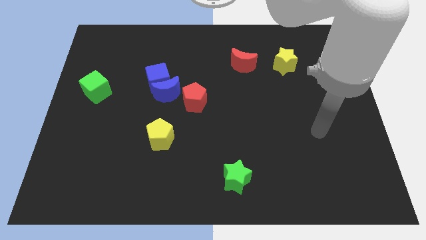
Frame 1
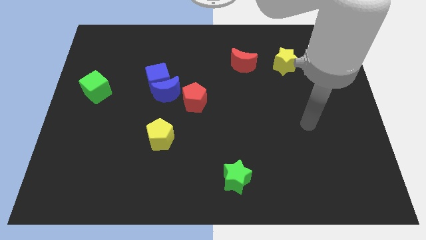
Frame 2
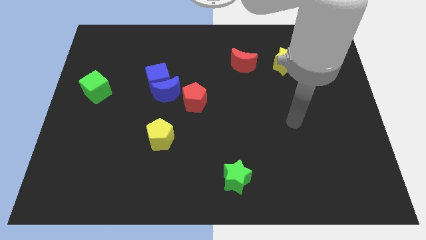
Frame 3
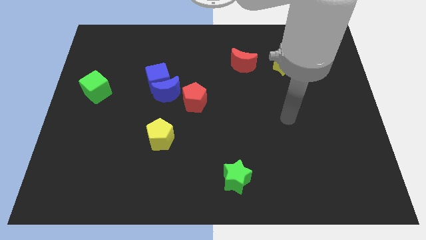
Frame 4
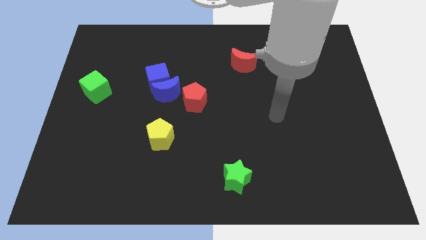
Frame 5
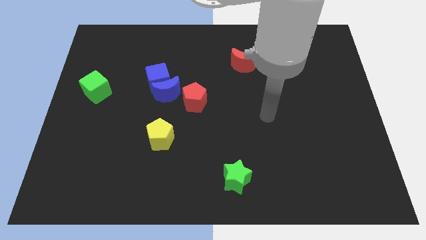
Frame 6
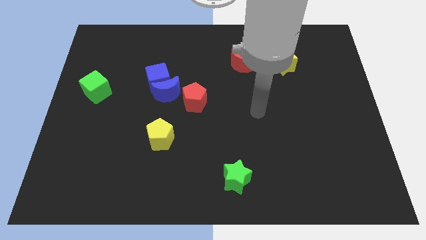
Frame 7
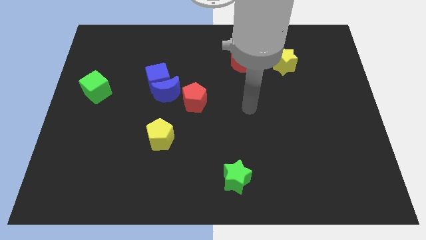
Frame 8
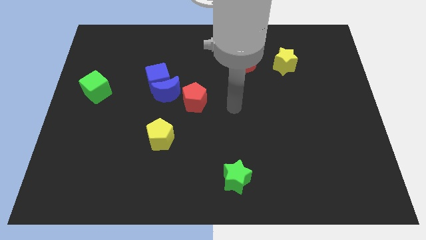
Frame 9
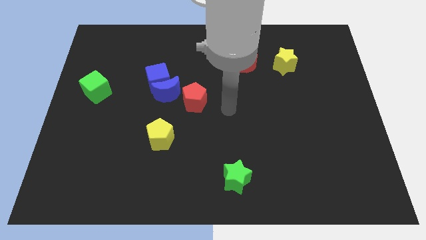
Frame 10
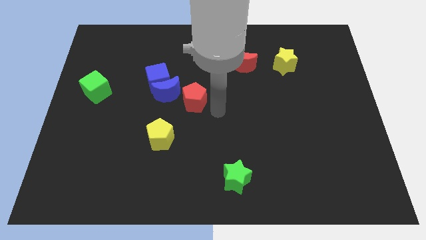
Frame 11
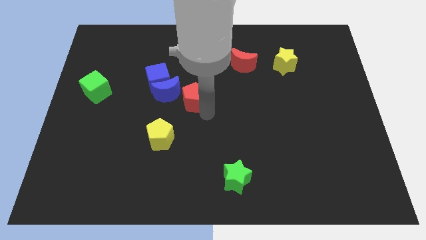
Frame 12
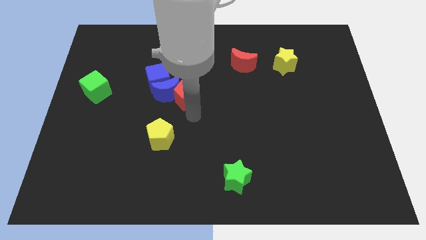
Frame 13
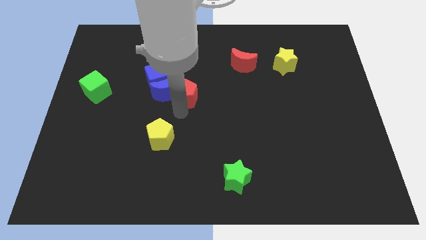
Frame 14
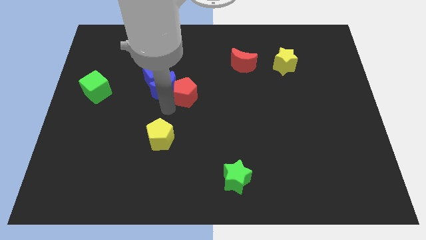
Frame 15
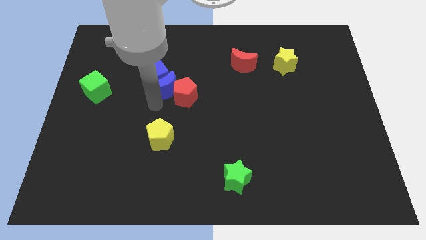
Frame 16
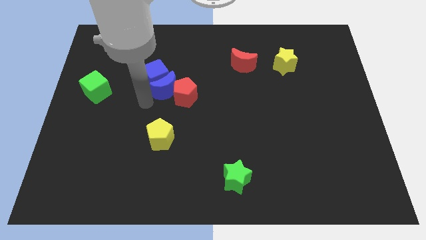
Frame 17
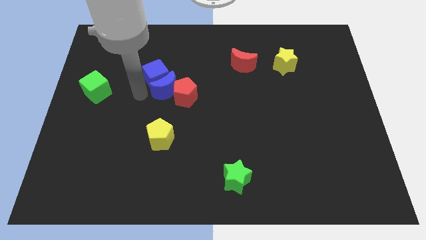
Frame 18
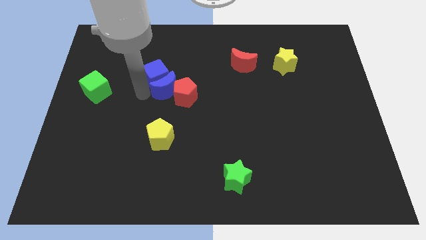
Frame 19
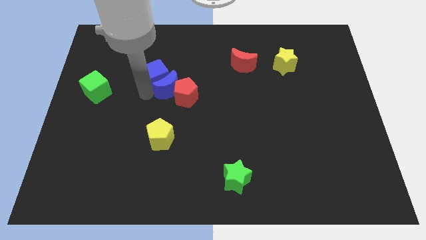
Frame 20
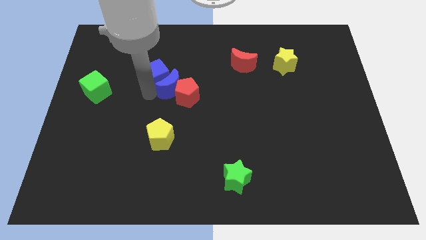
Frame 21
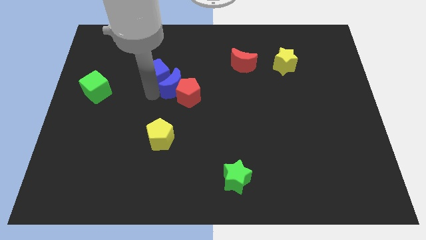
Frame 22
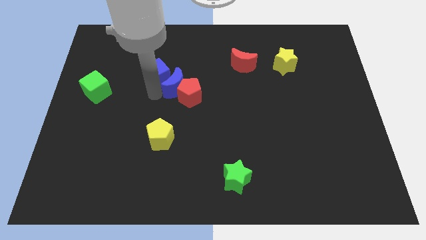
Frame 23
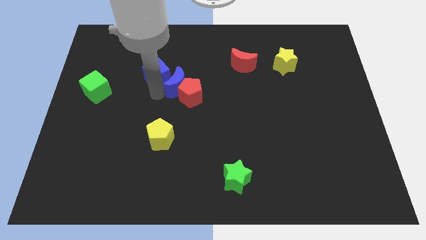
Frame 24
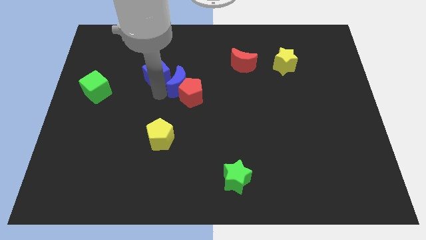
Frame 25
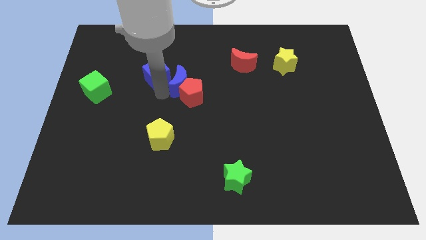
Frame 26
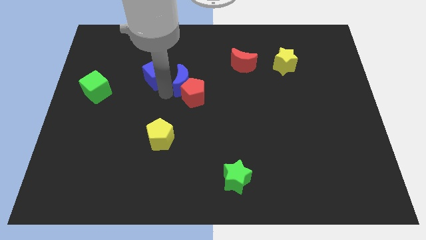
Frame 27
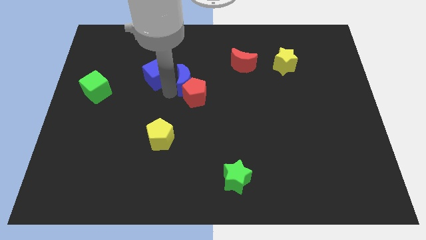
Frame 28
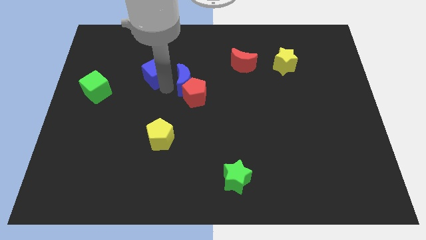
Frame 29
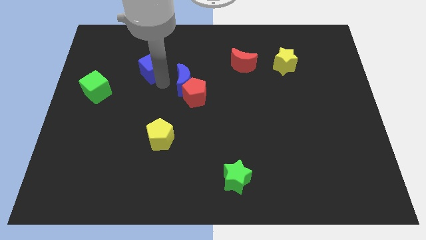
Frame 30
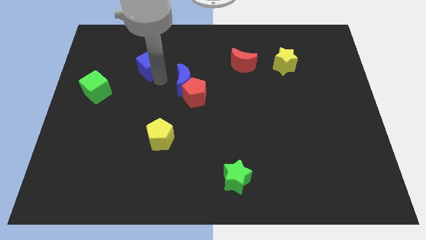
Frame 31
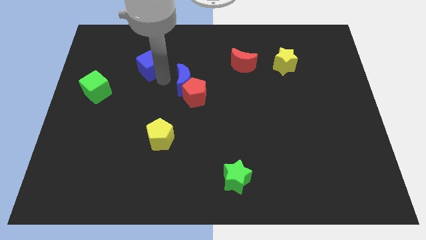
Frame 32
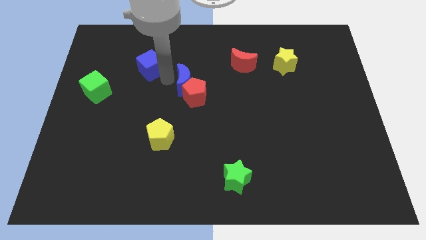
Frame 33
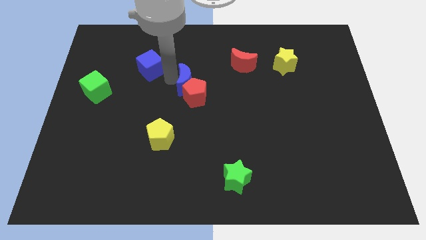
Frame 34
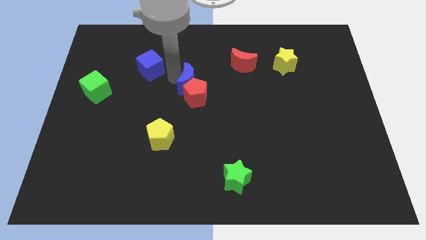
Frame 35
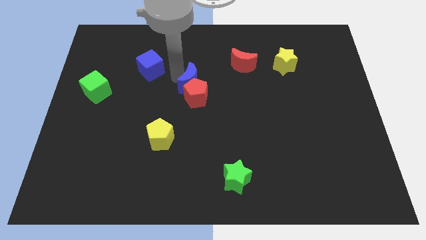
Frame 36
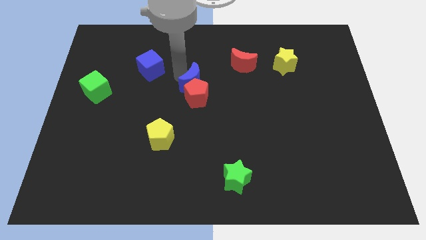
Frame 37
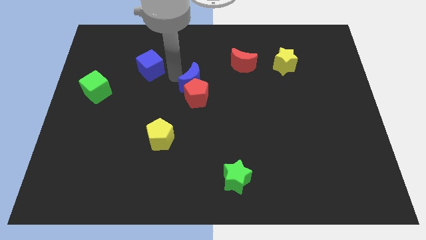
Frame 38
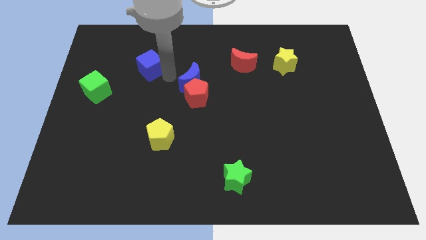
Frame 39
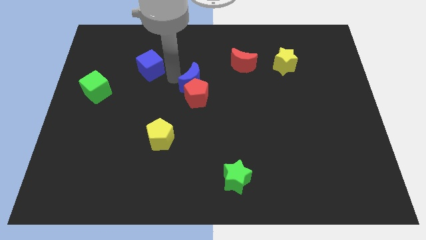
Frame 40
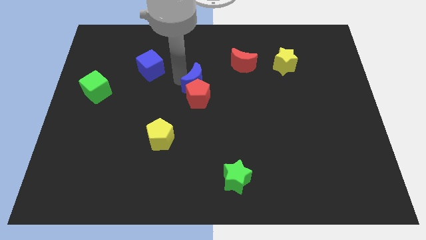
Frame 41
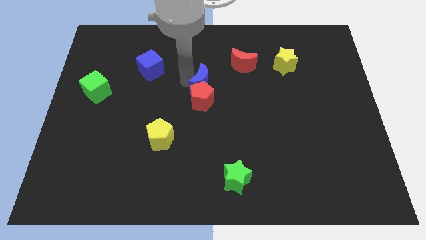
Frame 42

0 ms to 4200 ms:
slide the blue moon a bit to the right

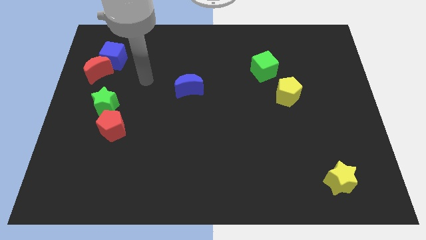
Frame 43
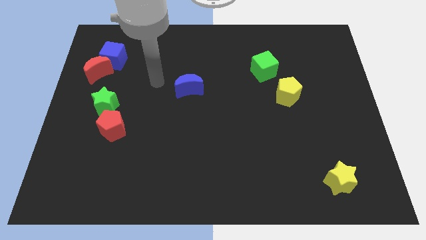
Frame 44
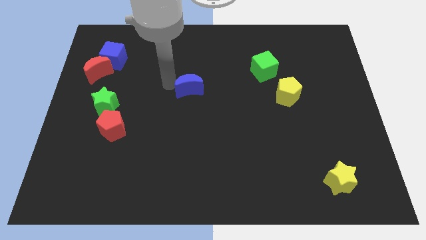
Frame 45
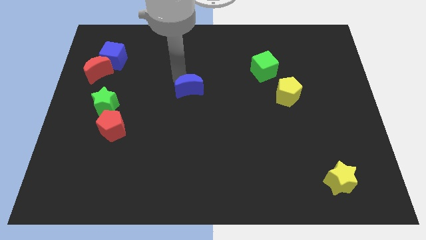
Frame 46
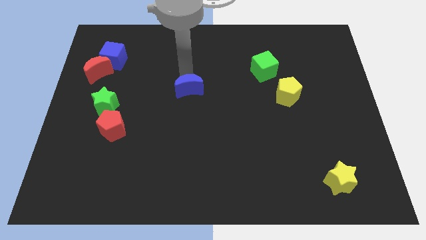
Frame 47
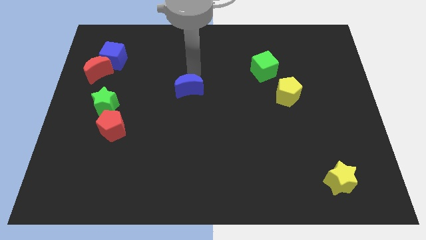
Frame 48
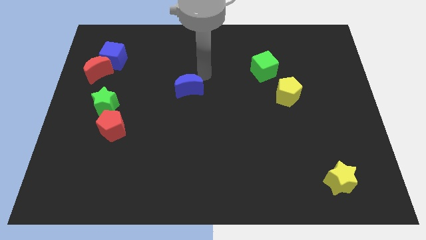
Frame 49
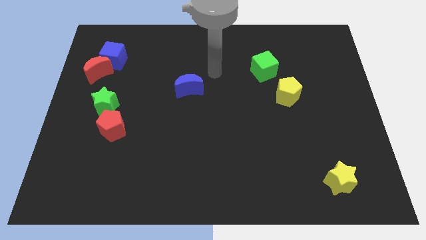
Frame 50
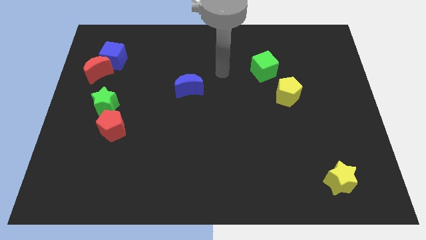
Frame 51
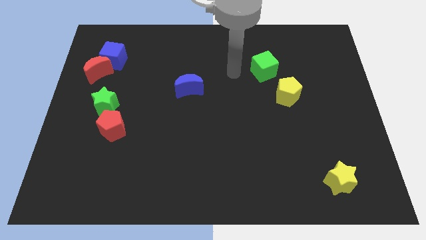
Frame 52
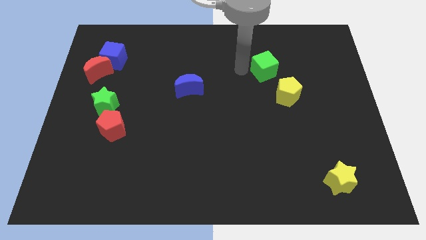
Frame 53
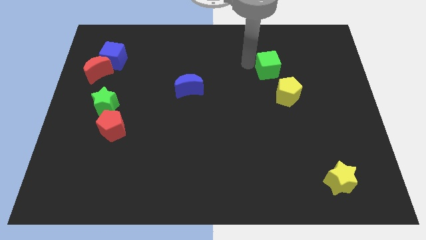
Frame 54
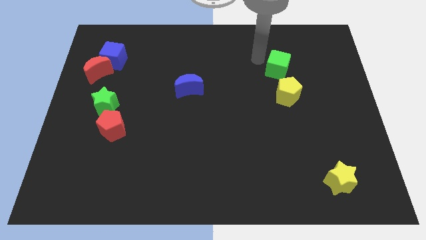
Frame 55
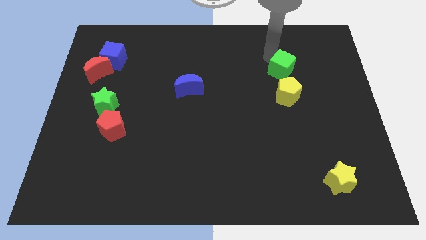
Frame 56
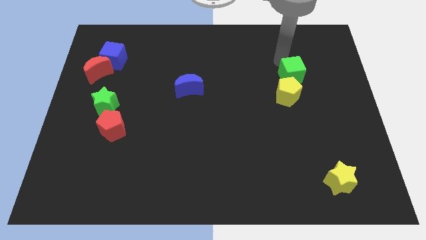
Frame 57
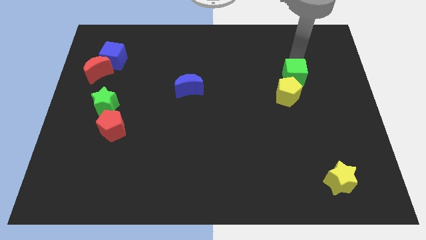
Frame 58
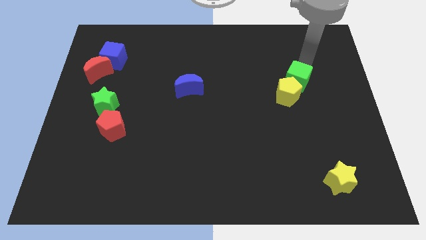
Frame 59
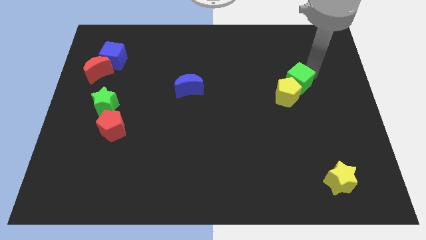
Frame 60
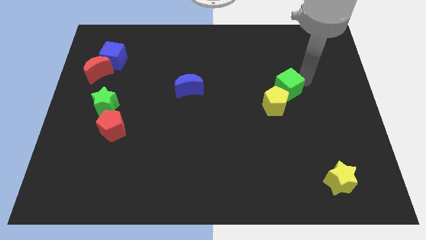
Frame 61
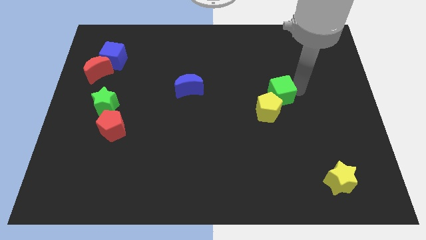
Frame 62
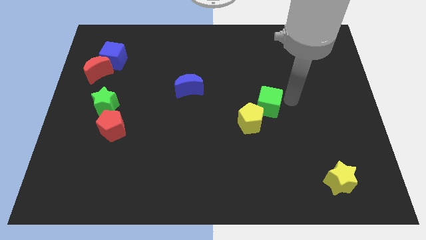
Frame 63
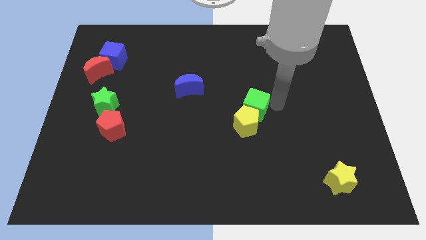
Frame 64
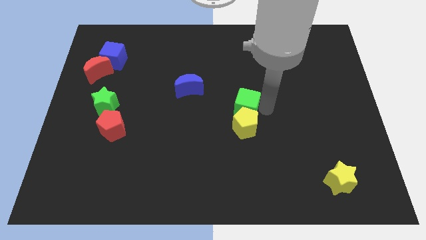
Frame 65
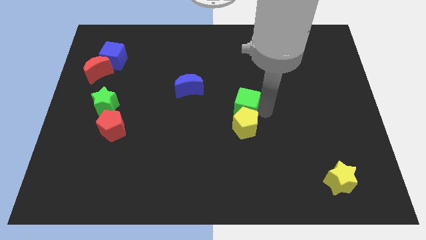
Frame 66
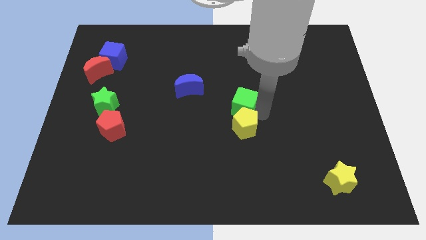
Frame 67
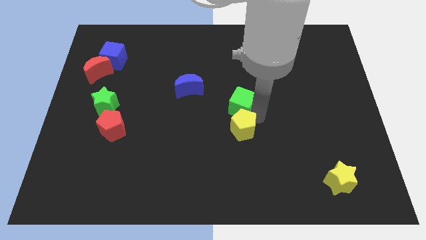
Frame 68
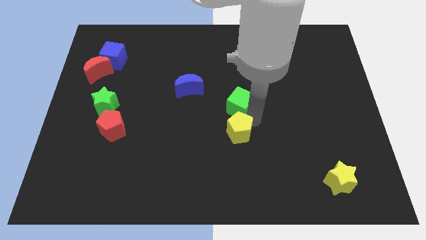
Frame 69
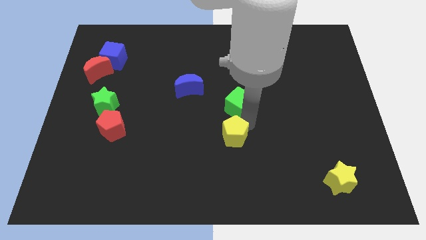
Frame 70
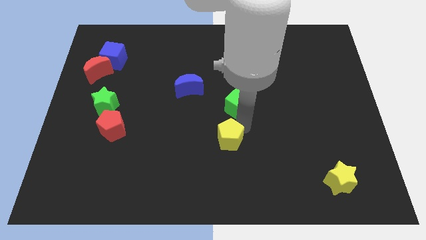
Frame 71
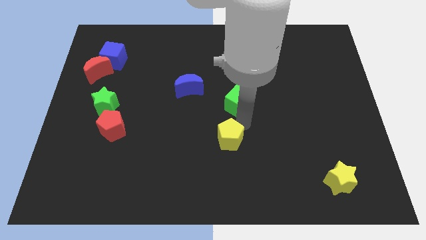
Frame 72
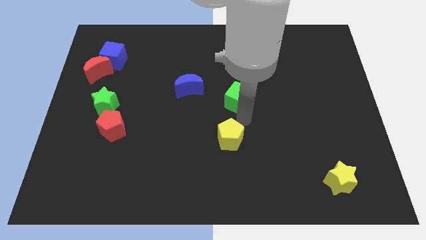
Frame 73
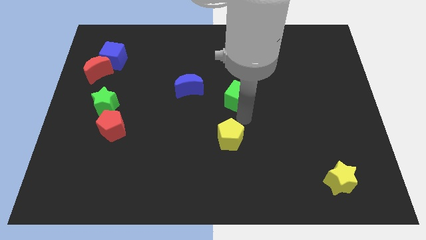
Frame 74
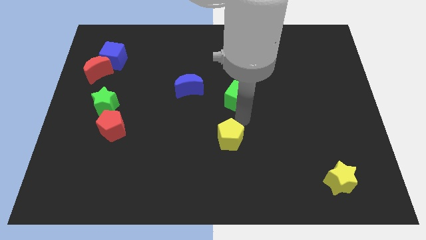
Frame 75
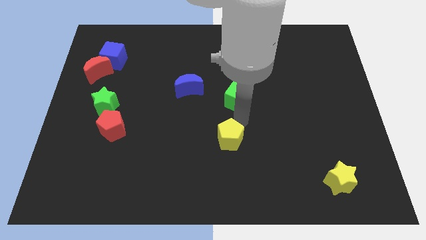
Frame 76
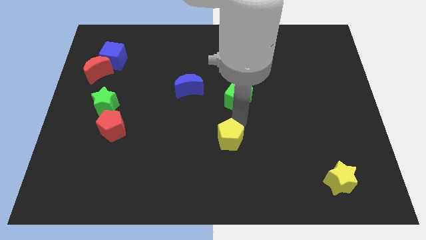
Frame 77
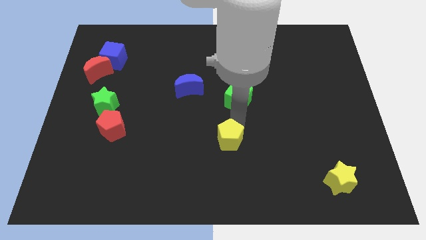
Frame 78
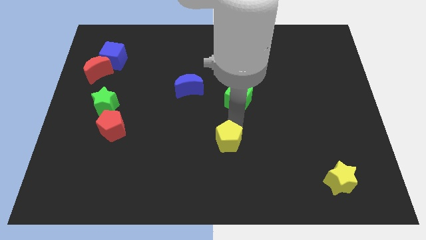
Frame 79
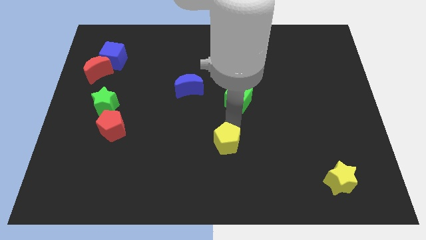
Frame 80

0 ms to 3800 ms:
push the yellow pentagon down and then left
